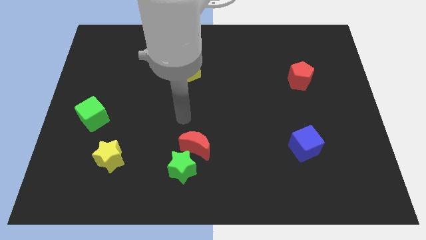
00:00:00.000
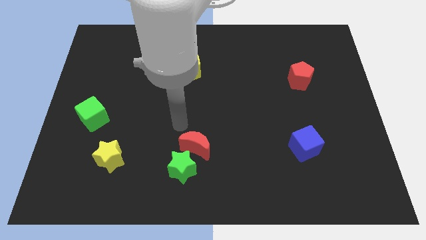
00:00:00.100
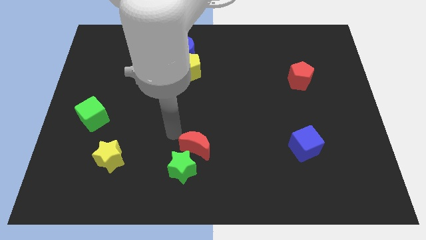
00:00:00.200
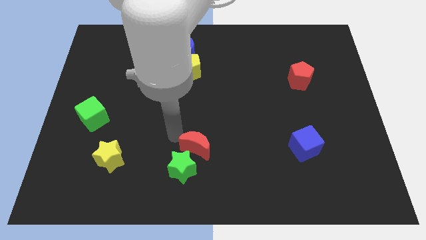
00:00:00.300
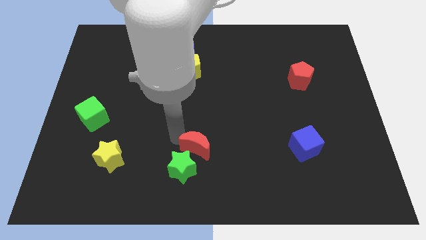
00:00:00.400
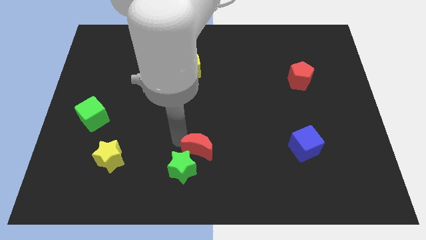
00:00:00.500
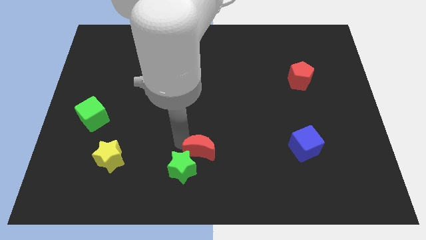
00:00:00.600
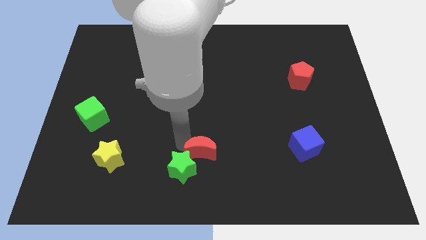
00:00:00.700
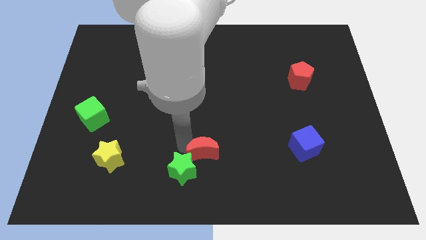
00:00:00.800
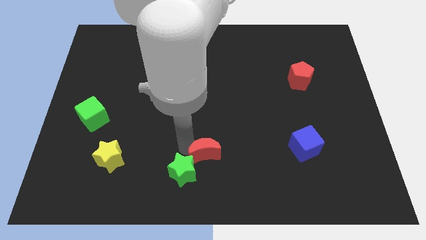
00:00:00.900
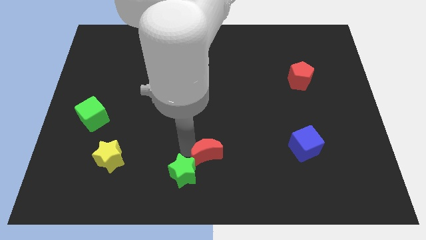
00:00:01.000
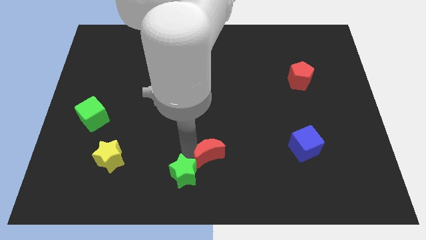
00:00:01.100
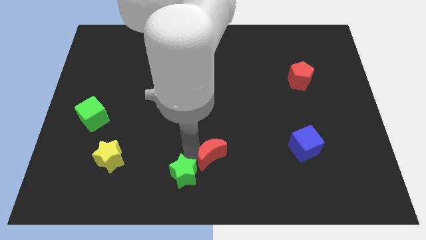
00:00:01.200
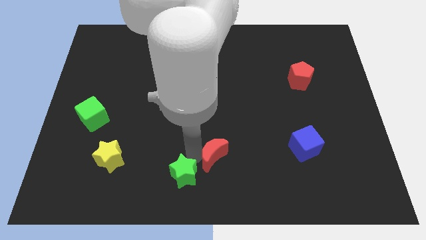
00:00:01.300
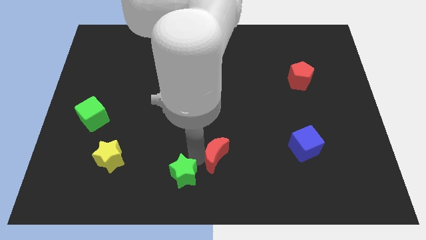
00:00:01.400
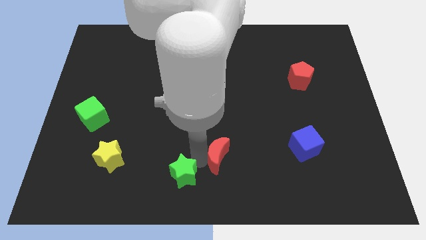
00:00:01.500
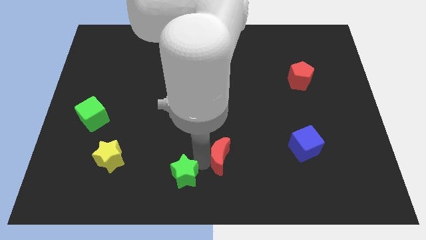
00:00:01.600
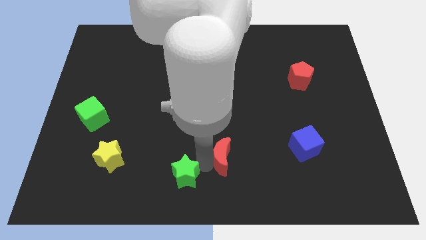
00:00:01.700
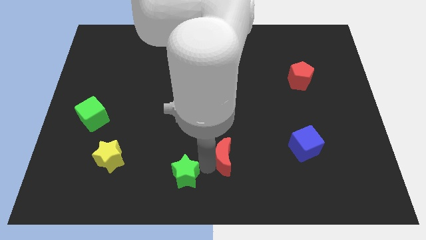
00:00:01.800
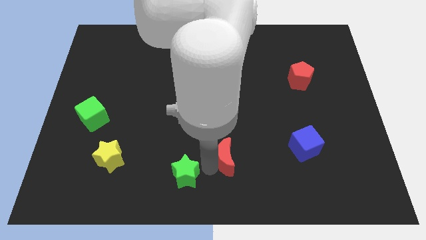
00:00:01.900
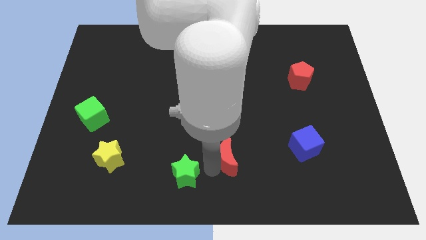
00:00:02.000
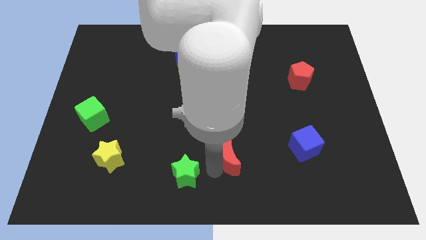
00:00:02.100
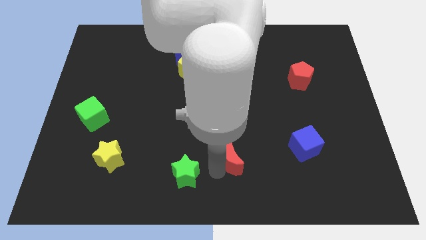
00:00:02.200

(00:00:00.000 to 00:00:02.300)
slightly move the red moon to the right

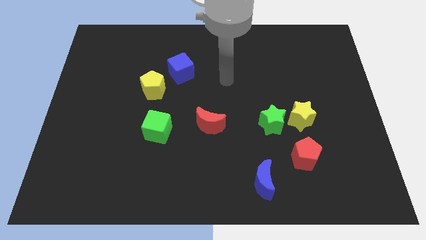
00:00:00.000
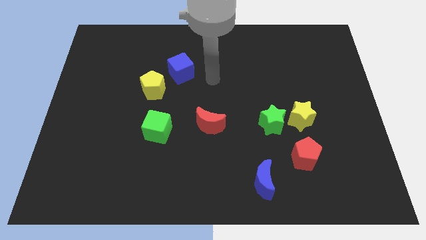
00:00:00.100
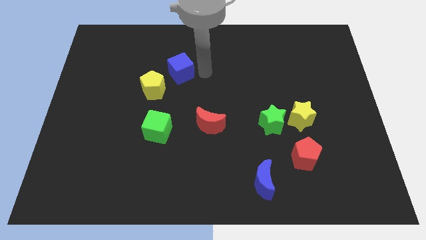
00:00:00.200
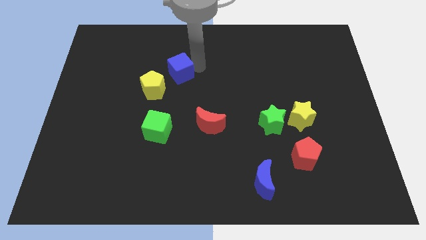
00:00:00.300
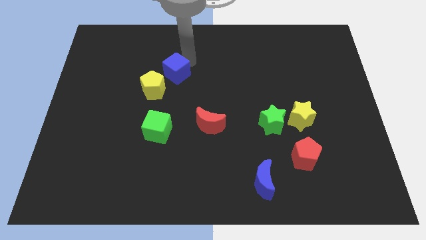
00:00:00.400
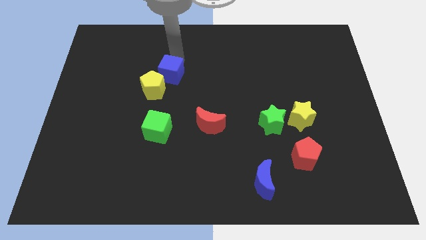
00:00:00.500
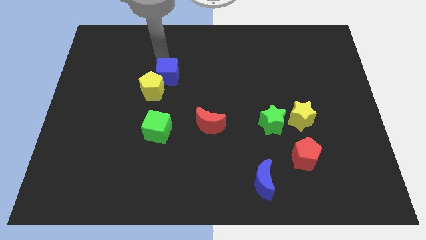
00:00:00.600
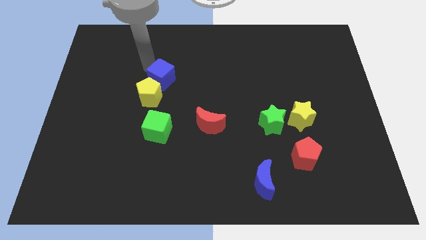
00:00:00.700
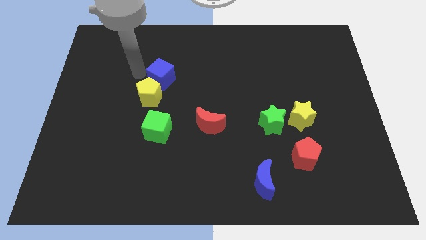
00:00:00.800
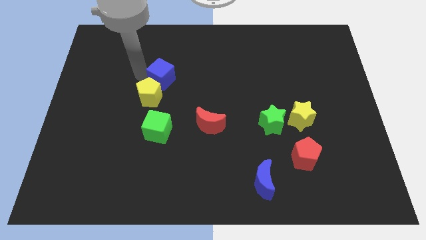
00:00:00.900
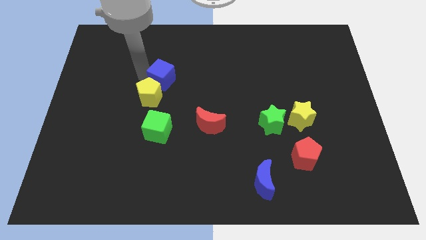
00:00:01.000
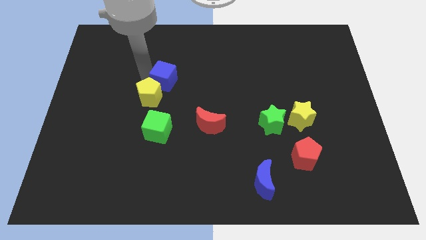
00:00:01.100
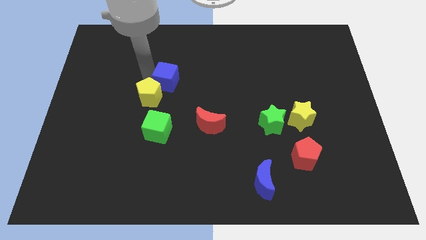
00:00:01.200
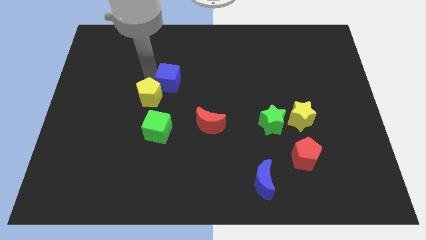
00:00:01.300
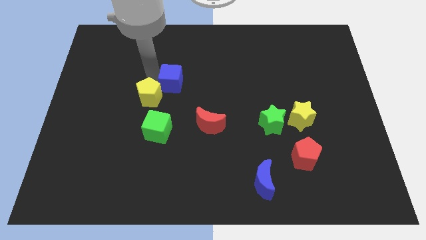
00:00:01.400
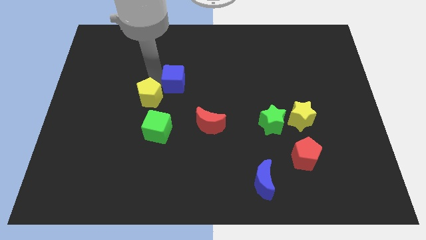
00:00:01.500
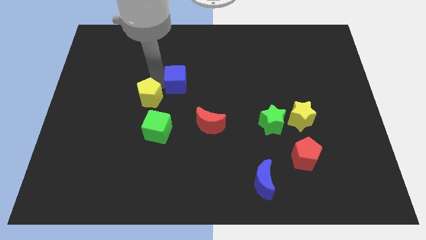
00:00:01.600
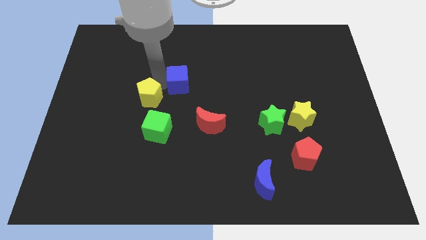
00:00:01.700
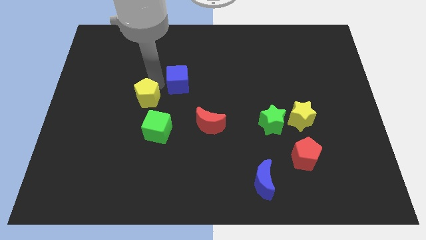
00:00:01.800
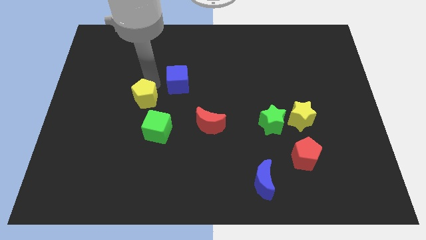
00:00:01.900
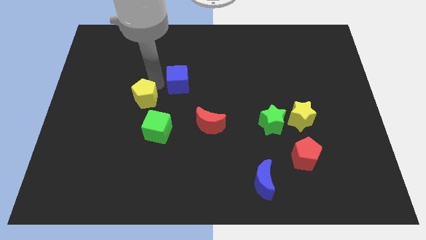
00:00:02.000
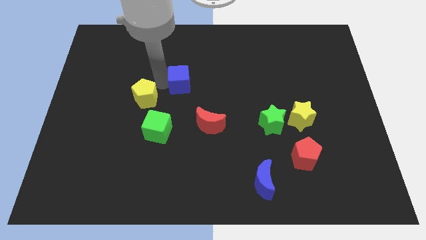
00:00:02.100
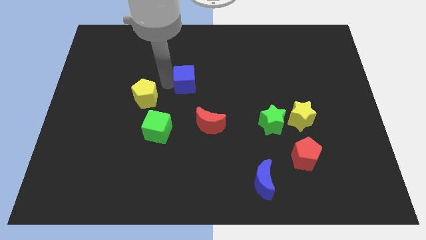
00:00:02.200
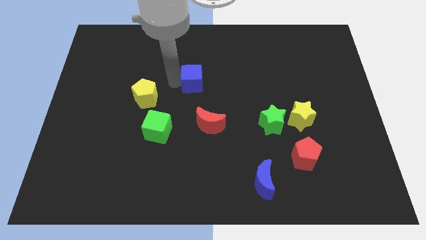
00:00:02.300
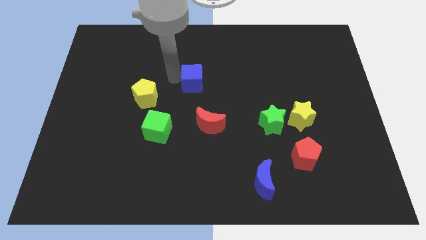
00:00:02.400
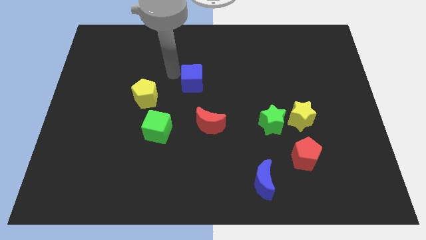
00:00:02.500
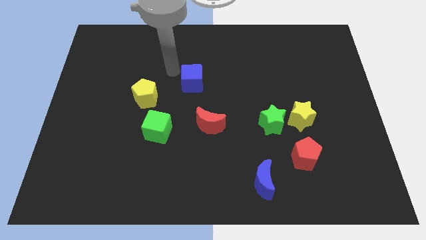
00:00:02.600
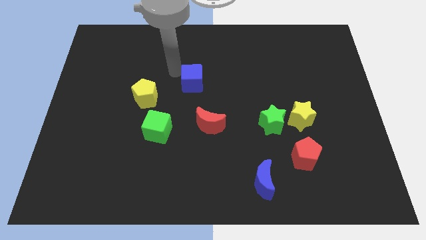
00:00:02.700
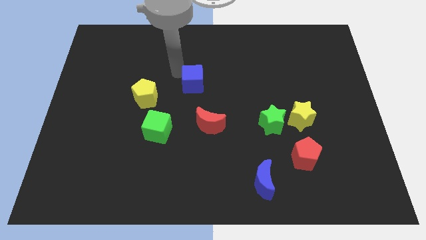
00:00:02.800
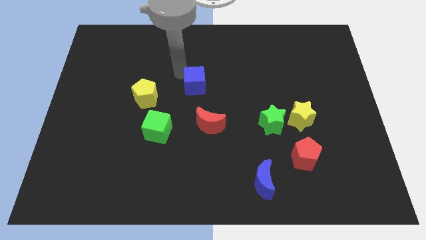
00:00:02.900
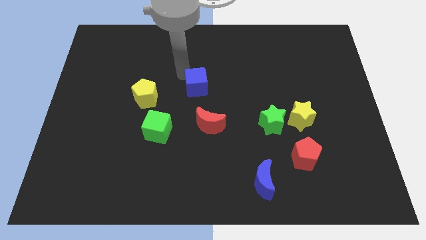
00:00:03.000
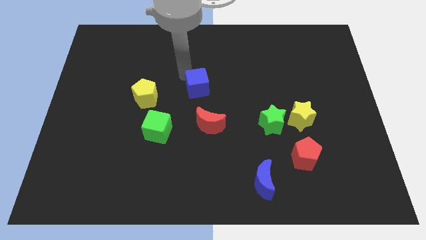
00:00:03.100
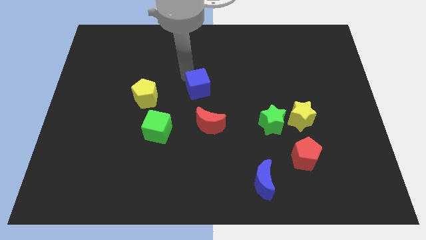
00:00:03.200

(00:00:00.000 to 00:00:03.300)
push the blue cube a bit down and to the right diagonally

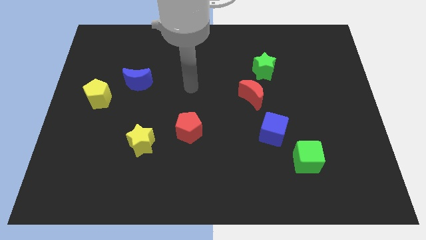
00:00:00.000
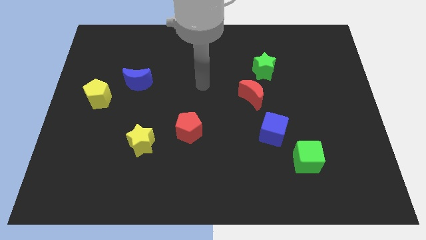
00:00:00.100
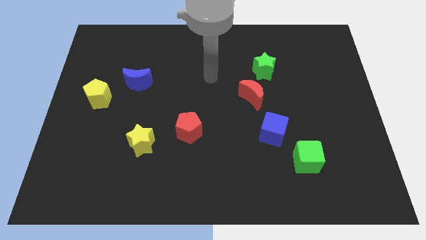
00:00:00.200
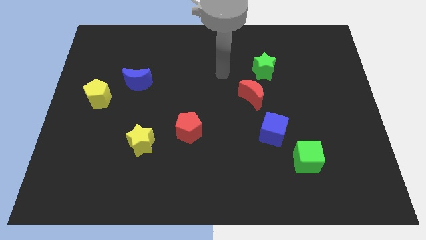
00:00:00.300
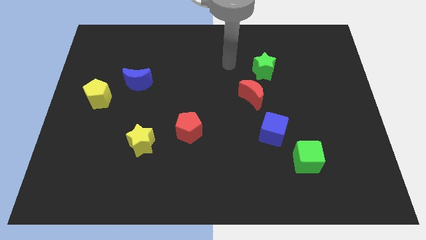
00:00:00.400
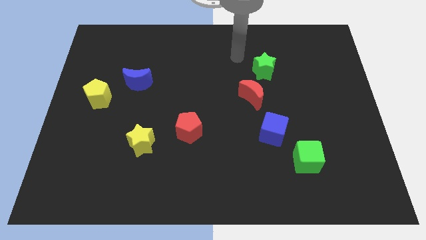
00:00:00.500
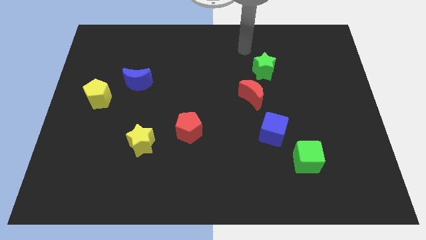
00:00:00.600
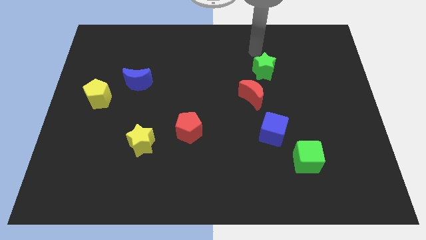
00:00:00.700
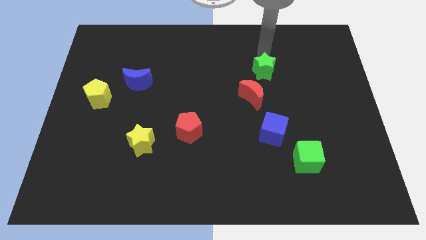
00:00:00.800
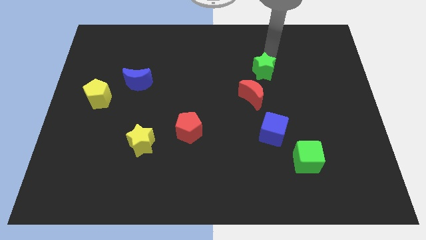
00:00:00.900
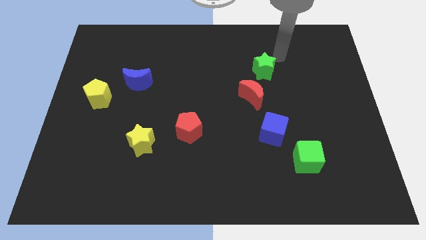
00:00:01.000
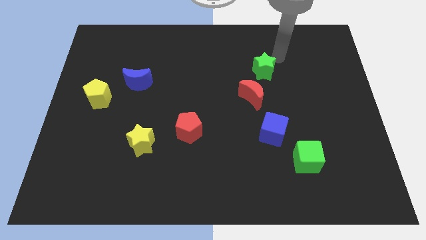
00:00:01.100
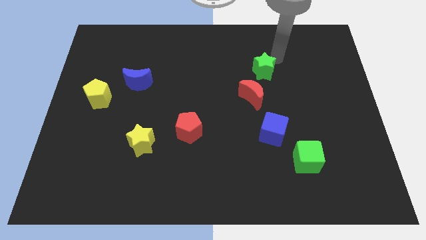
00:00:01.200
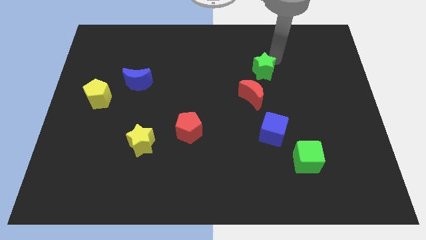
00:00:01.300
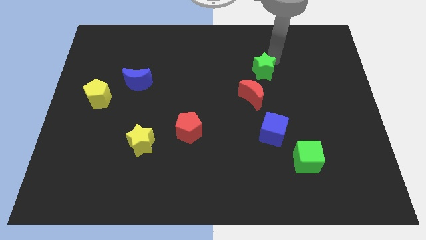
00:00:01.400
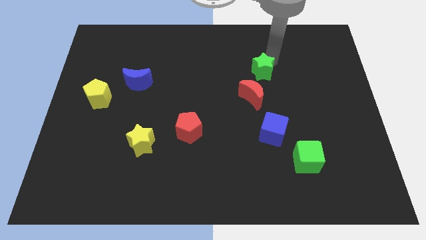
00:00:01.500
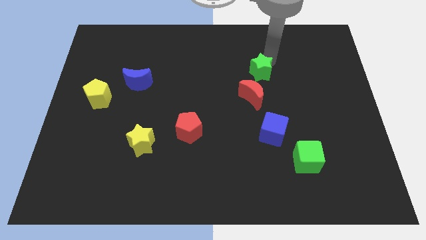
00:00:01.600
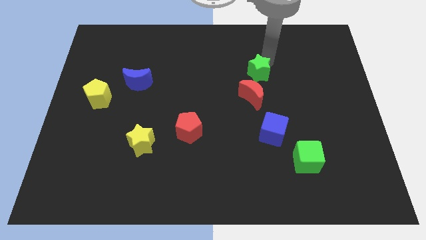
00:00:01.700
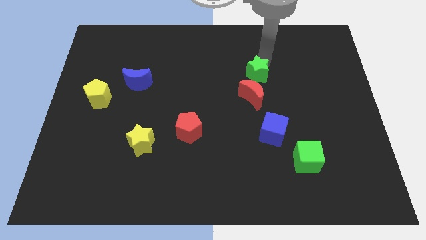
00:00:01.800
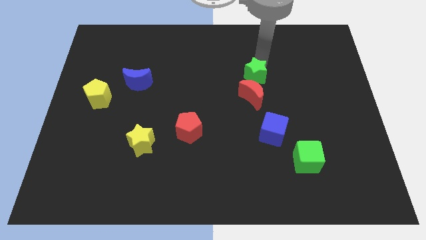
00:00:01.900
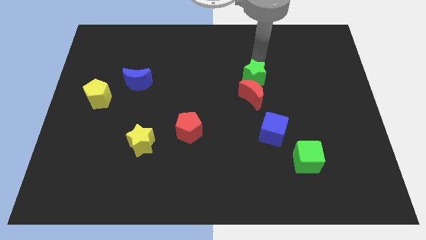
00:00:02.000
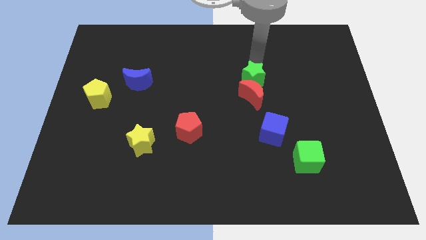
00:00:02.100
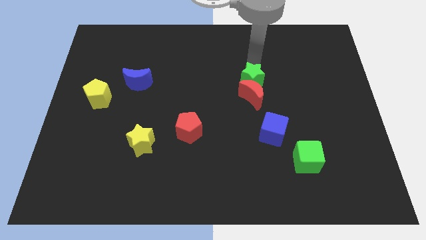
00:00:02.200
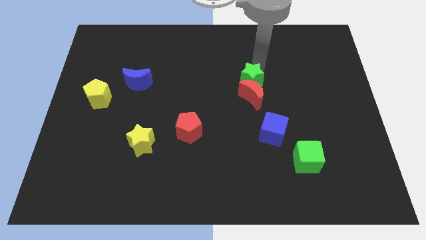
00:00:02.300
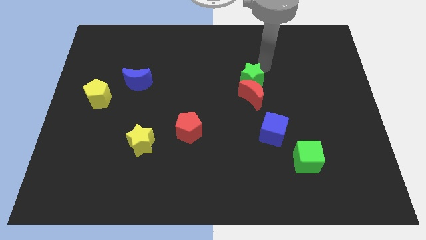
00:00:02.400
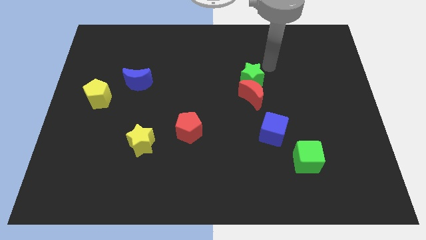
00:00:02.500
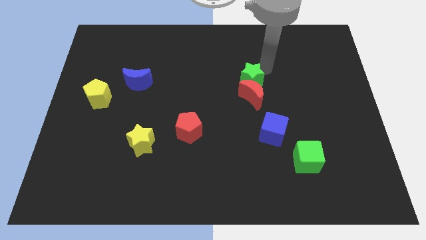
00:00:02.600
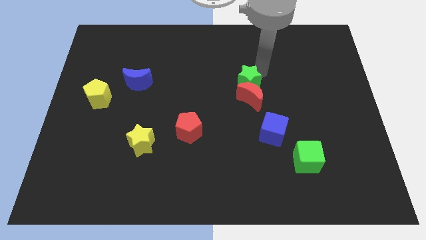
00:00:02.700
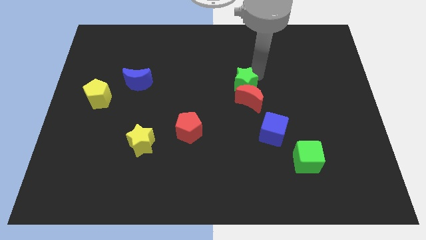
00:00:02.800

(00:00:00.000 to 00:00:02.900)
slightly move the green star down and to the left

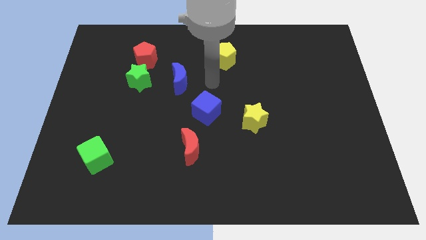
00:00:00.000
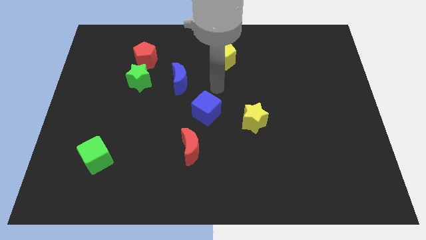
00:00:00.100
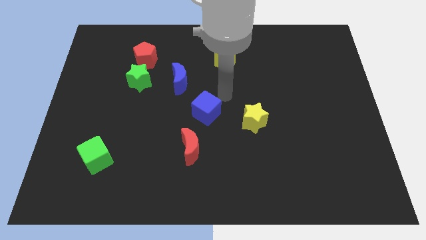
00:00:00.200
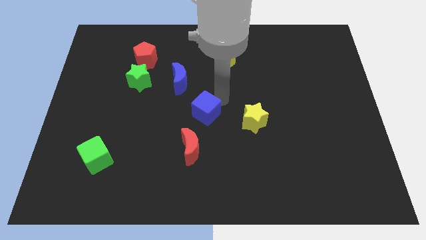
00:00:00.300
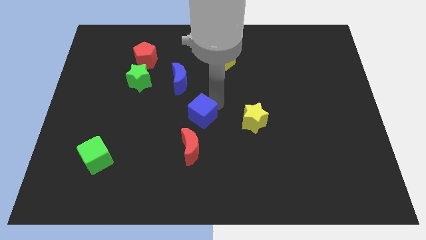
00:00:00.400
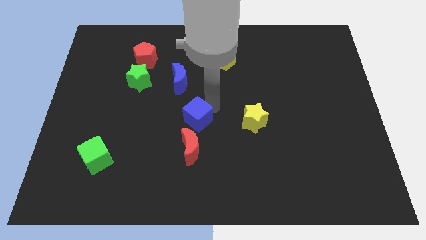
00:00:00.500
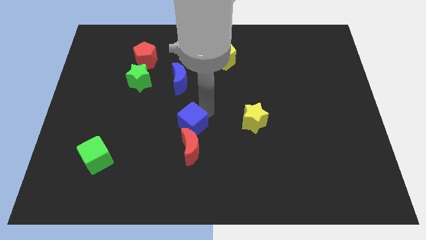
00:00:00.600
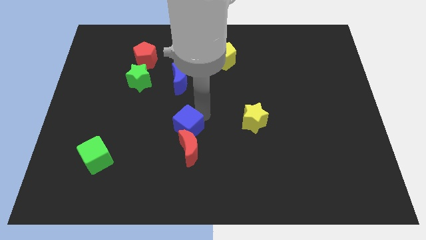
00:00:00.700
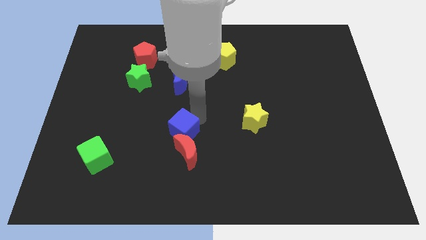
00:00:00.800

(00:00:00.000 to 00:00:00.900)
move the blue cube down and left diagonally a bit
